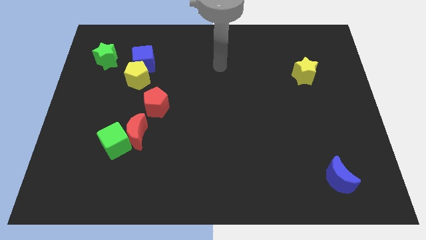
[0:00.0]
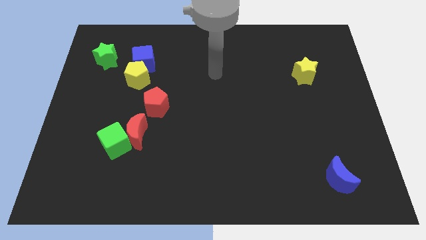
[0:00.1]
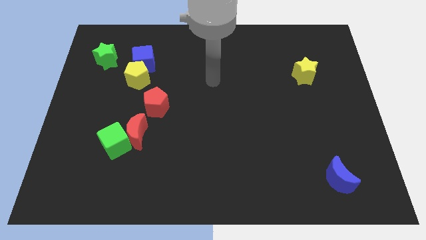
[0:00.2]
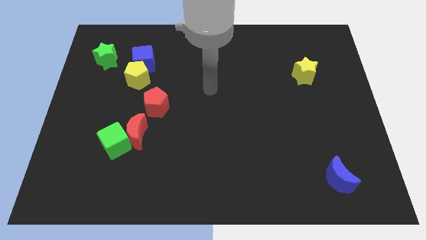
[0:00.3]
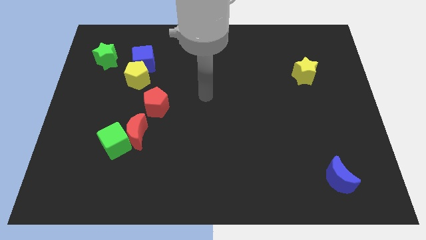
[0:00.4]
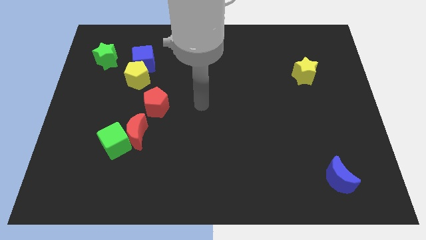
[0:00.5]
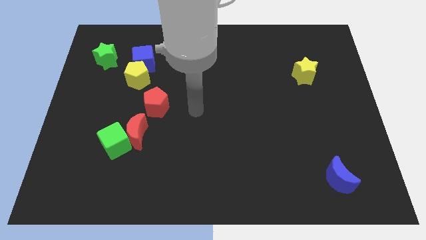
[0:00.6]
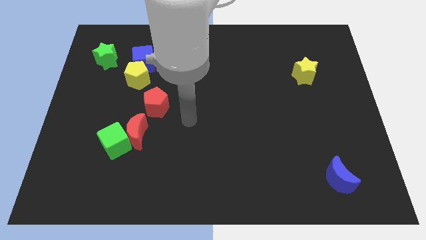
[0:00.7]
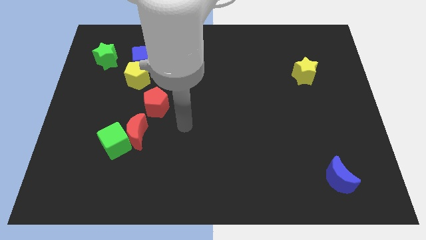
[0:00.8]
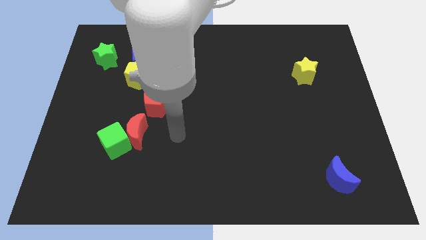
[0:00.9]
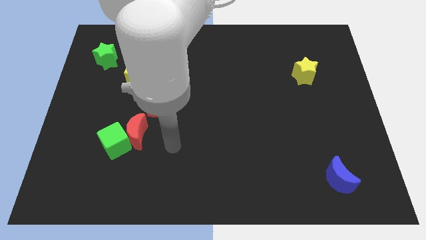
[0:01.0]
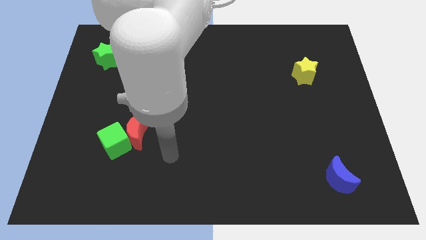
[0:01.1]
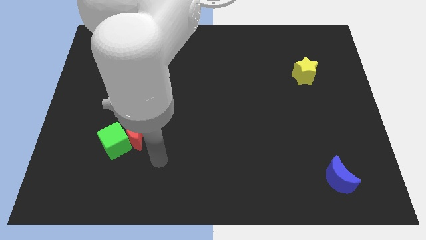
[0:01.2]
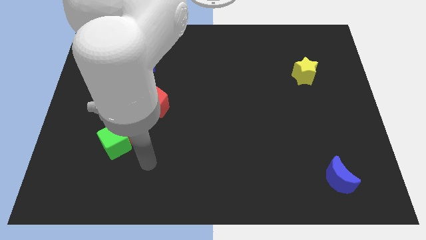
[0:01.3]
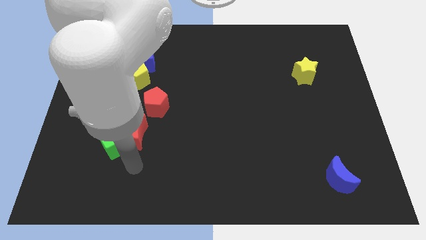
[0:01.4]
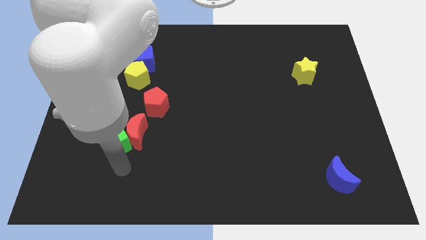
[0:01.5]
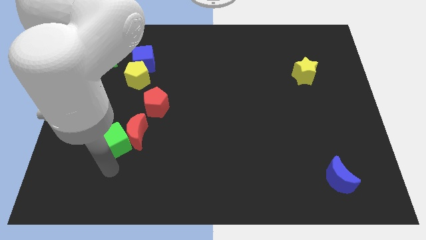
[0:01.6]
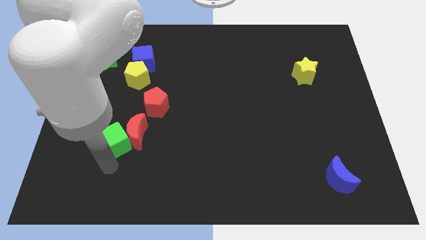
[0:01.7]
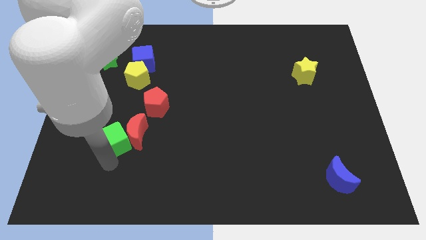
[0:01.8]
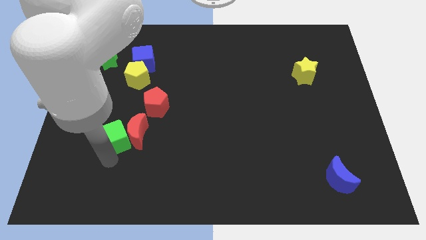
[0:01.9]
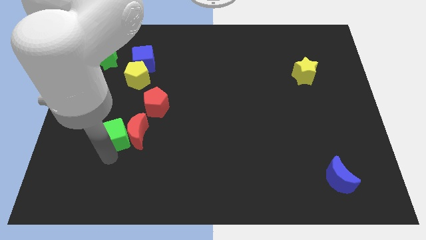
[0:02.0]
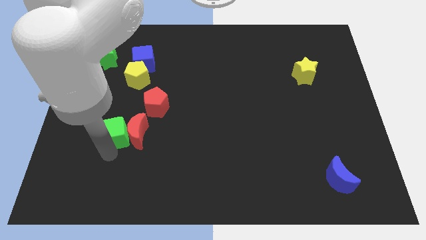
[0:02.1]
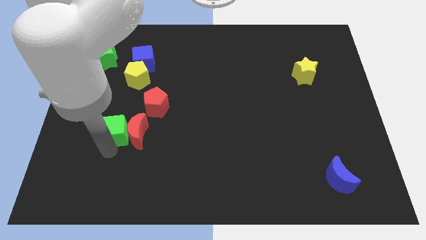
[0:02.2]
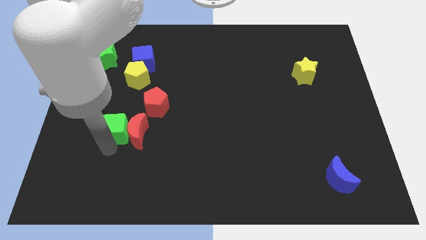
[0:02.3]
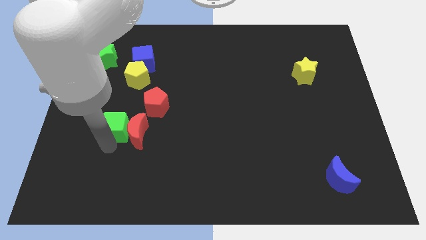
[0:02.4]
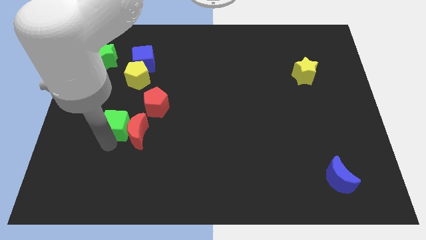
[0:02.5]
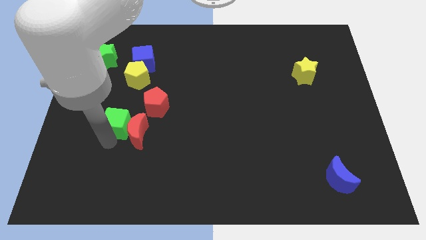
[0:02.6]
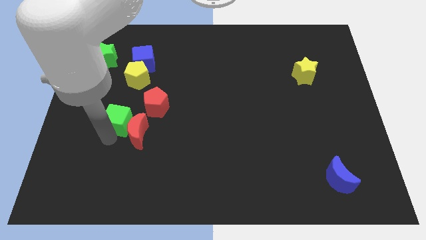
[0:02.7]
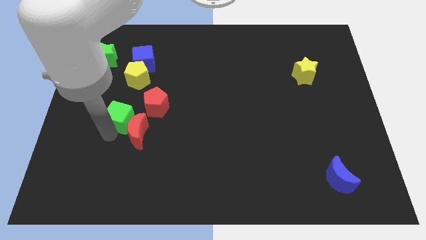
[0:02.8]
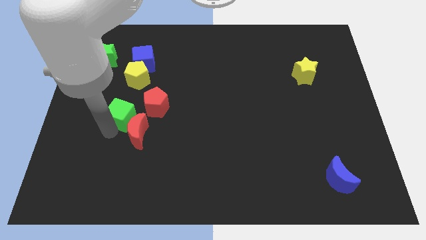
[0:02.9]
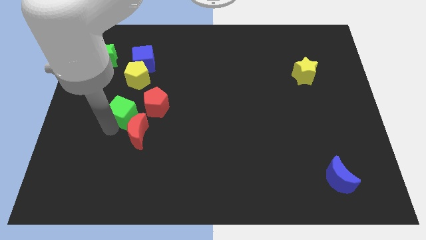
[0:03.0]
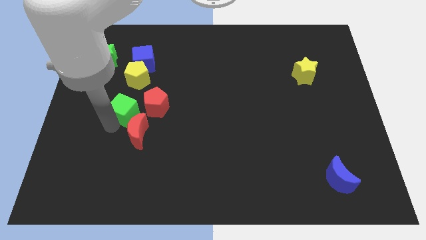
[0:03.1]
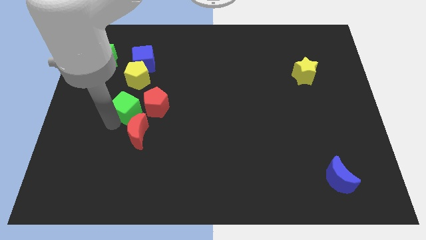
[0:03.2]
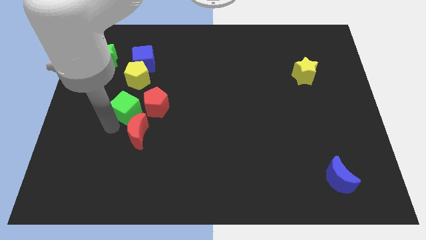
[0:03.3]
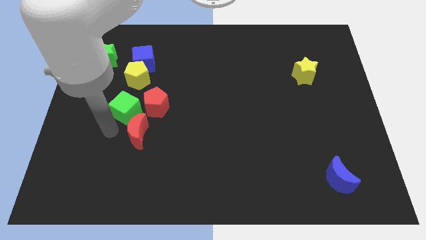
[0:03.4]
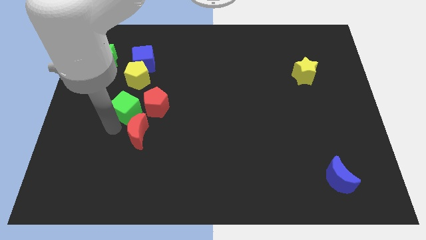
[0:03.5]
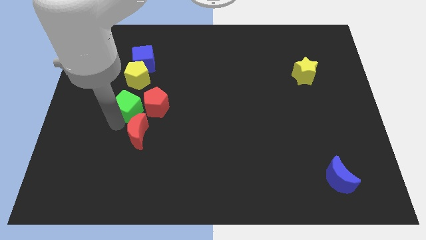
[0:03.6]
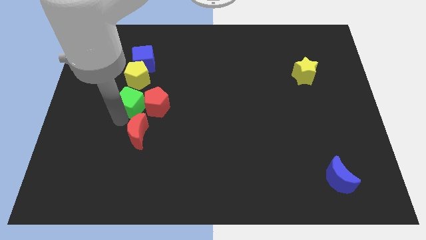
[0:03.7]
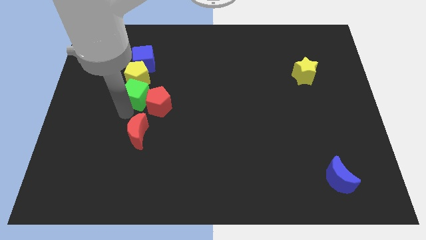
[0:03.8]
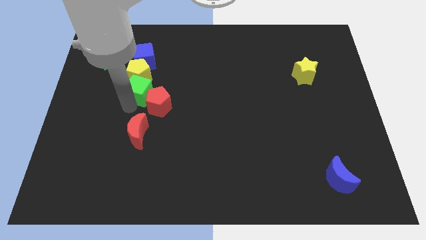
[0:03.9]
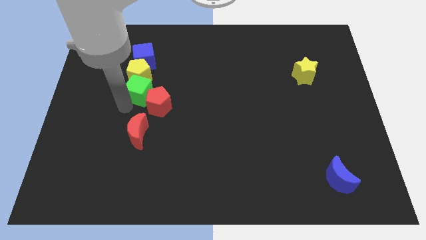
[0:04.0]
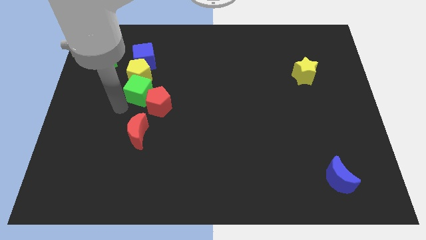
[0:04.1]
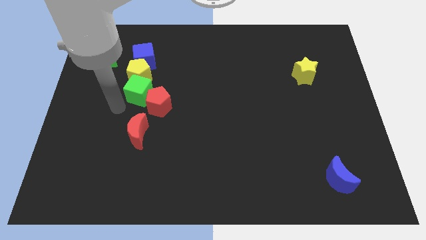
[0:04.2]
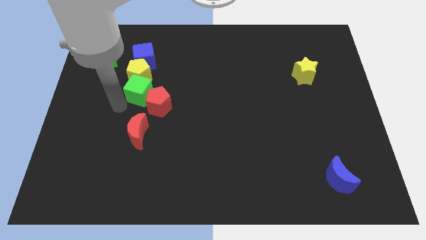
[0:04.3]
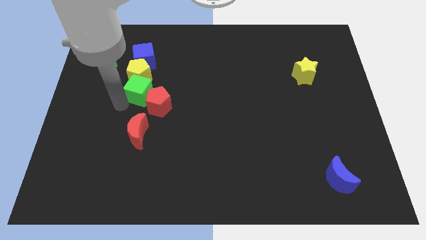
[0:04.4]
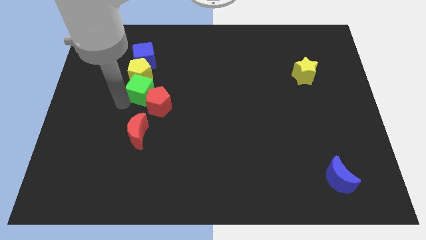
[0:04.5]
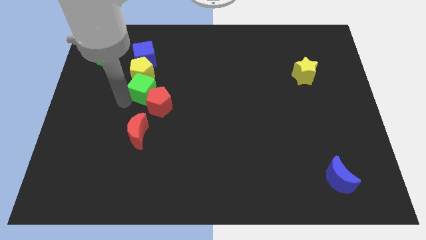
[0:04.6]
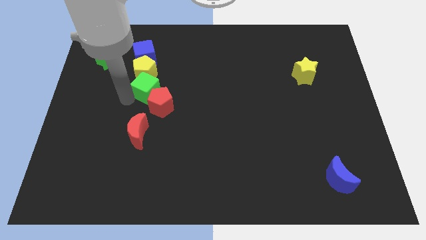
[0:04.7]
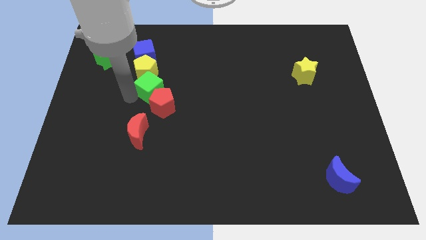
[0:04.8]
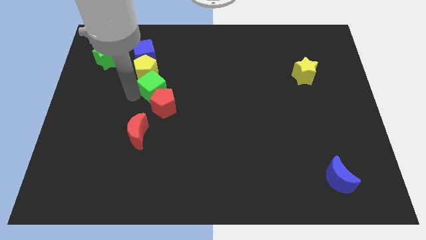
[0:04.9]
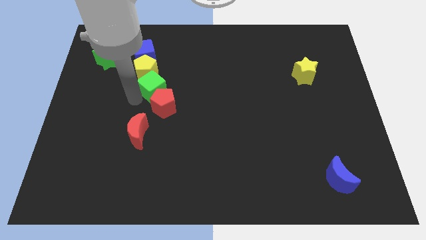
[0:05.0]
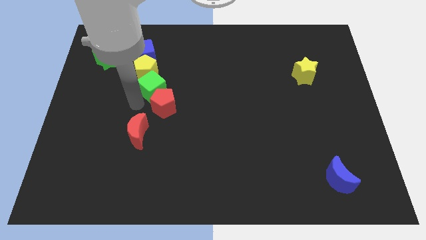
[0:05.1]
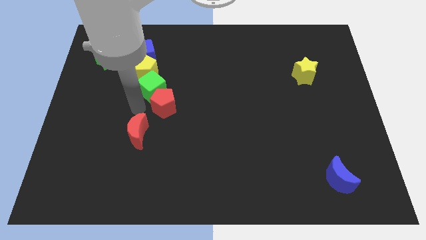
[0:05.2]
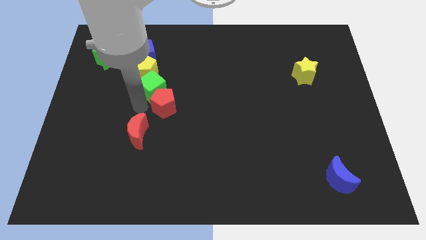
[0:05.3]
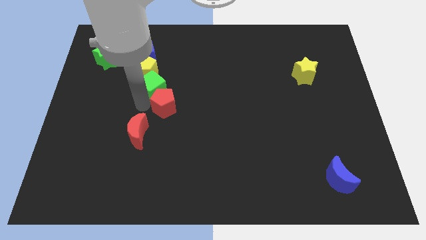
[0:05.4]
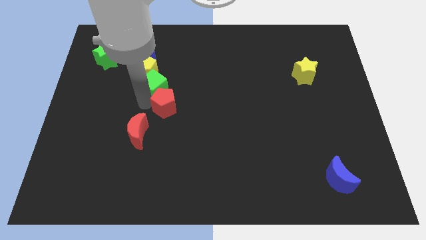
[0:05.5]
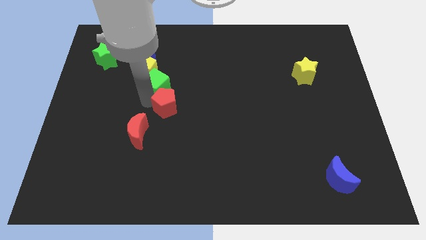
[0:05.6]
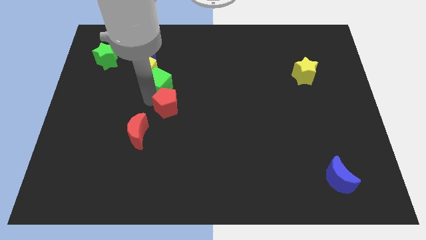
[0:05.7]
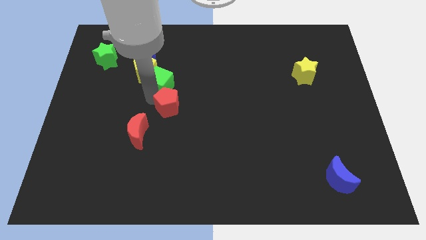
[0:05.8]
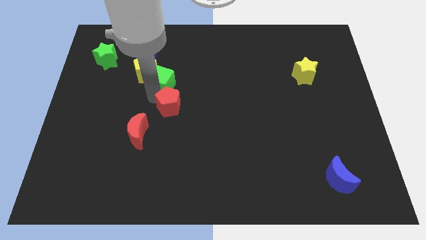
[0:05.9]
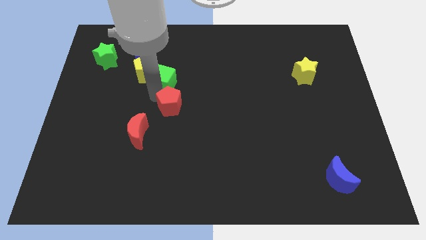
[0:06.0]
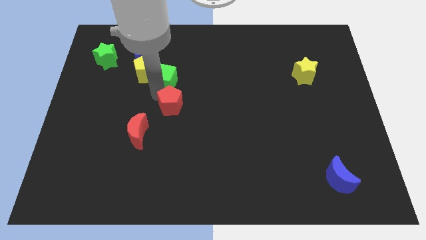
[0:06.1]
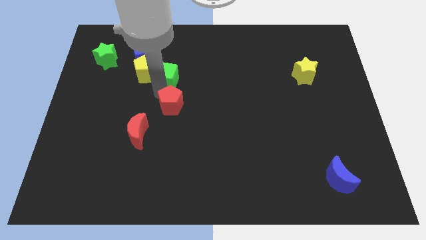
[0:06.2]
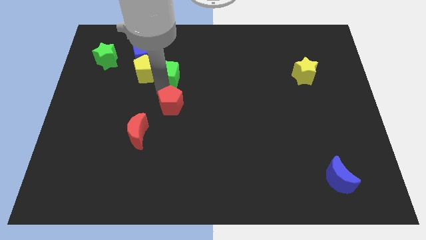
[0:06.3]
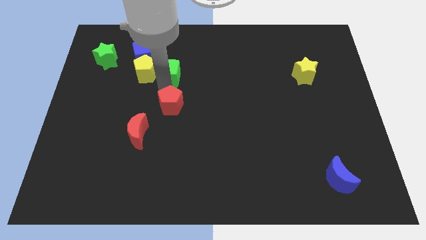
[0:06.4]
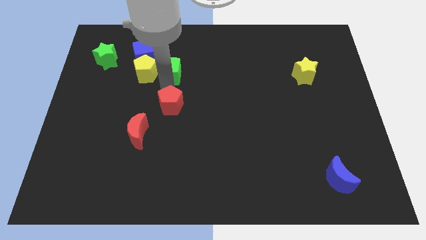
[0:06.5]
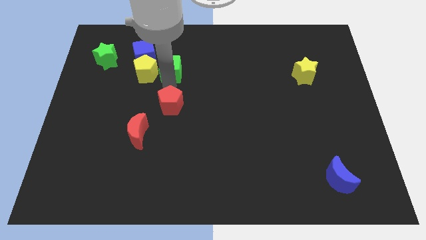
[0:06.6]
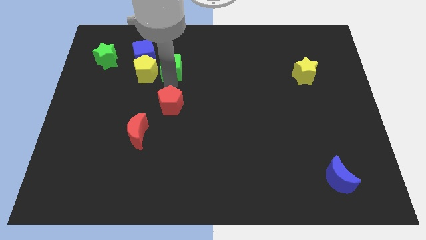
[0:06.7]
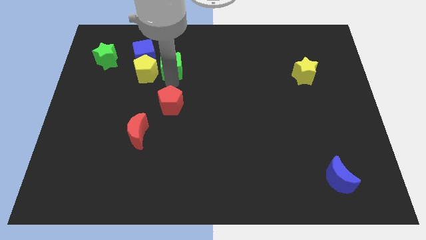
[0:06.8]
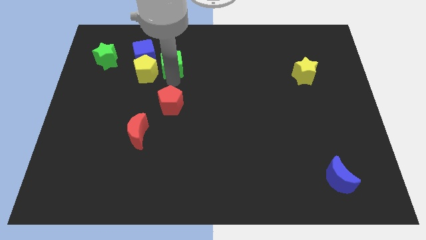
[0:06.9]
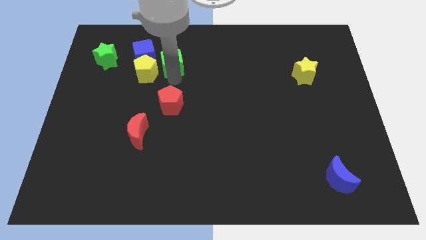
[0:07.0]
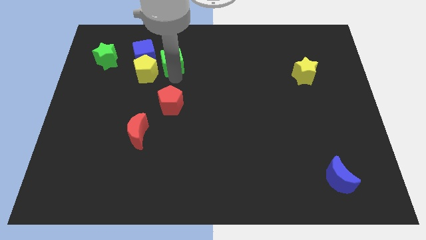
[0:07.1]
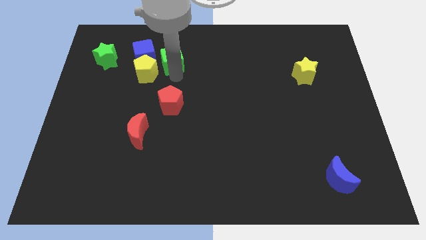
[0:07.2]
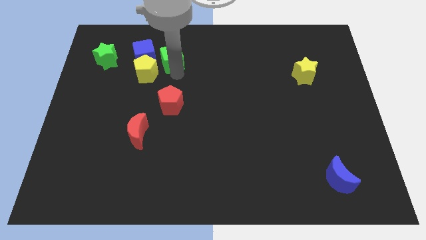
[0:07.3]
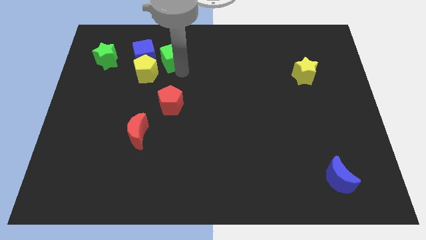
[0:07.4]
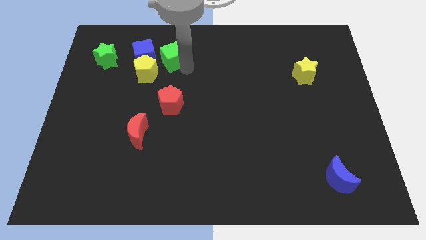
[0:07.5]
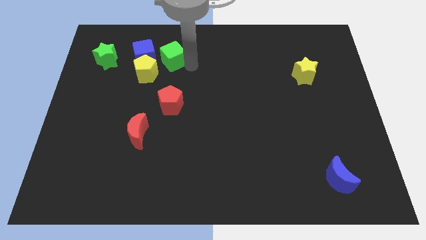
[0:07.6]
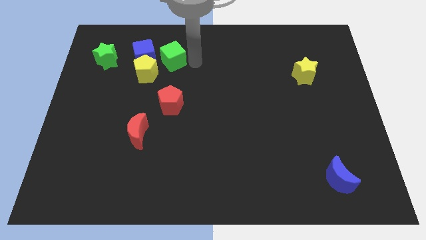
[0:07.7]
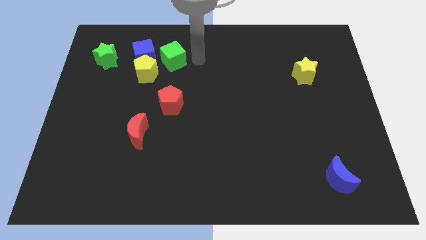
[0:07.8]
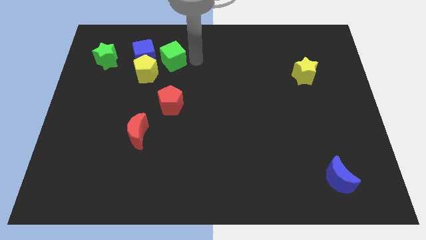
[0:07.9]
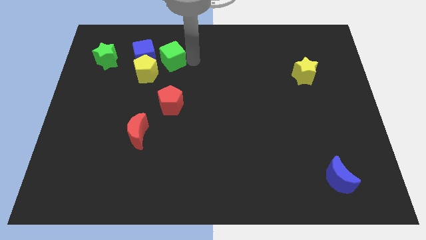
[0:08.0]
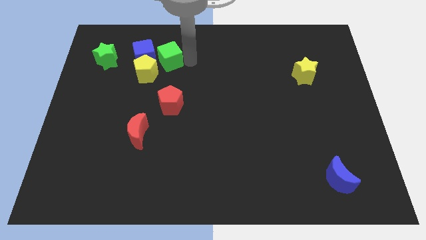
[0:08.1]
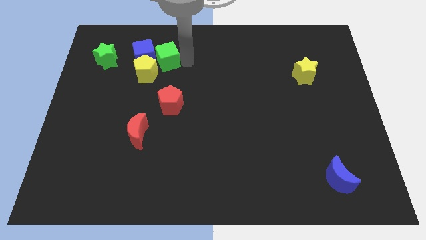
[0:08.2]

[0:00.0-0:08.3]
move the green cube just right of the green star
